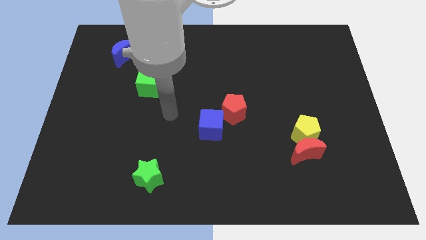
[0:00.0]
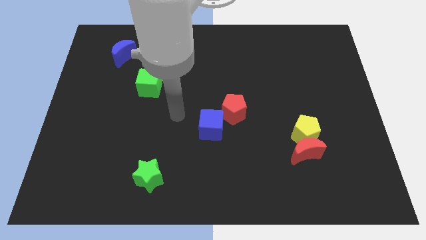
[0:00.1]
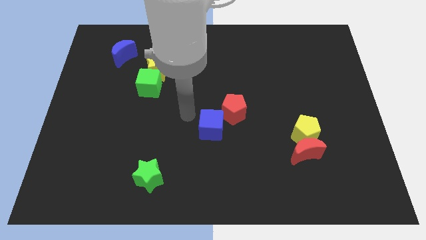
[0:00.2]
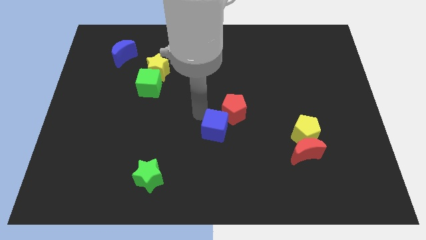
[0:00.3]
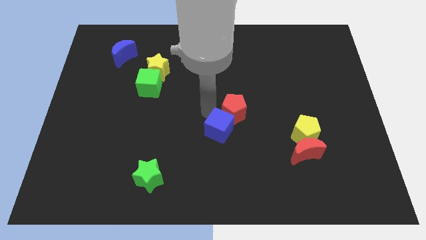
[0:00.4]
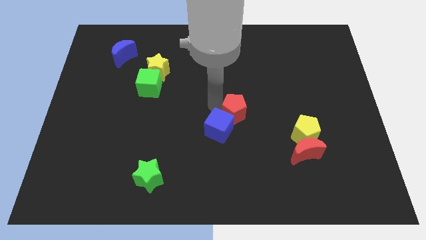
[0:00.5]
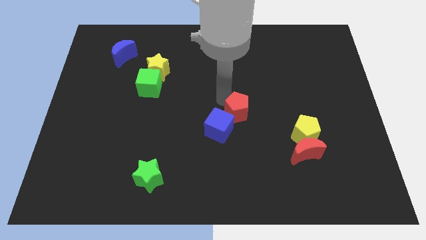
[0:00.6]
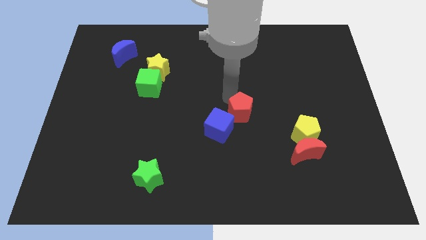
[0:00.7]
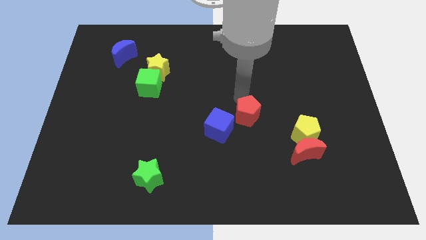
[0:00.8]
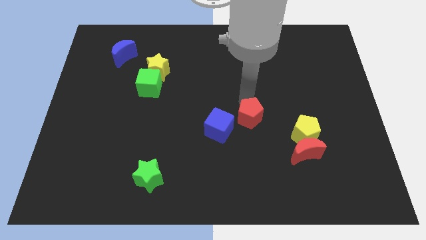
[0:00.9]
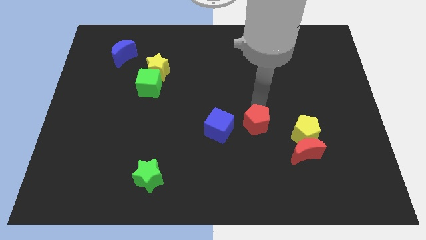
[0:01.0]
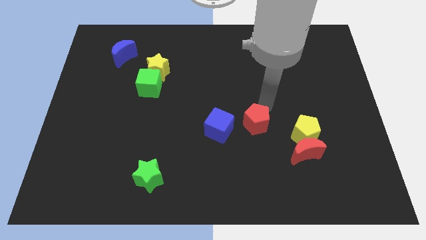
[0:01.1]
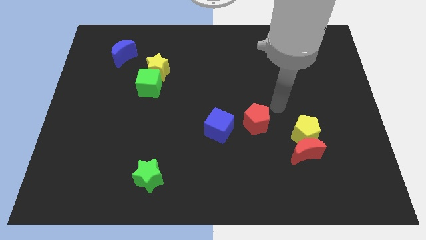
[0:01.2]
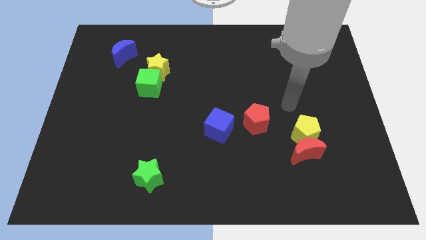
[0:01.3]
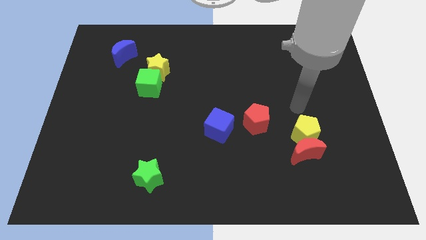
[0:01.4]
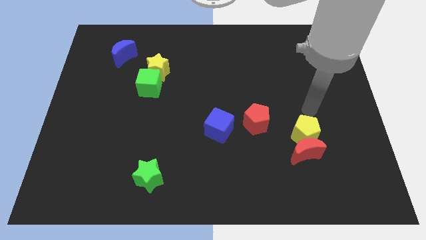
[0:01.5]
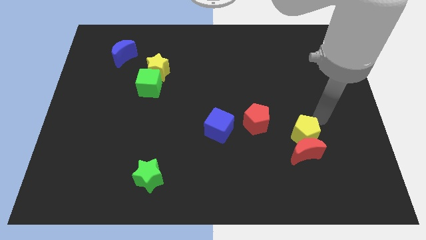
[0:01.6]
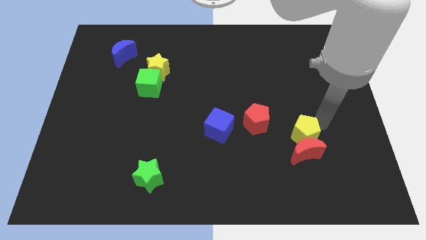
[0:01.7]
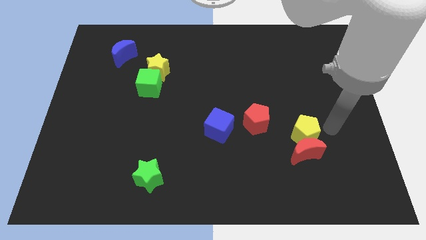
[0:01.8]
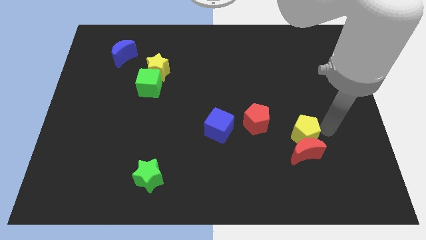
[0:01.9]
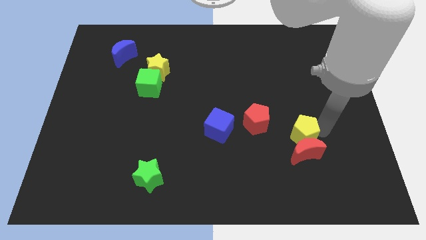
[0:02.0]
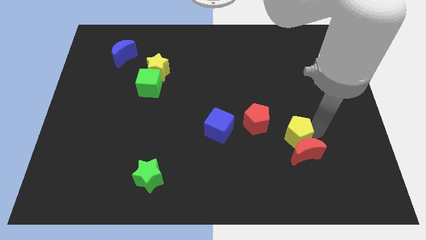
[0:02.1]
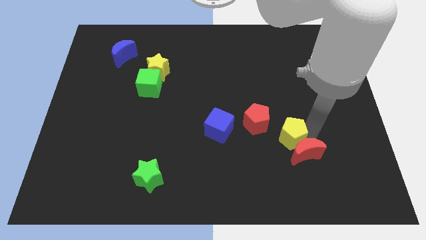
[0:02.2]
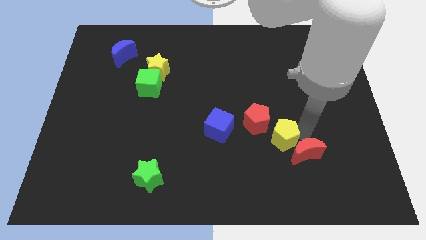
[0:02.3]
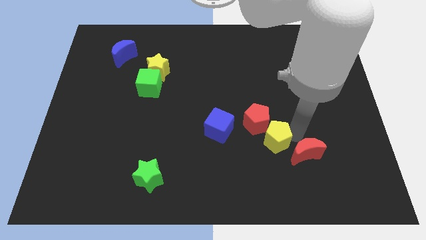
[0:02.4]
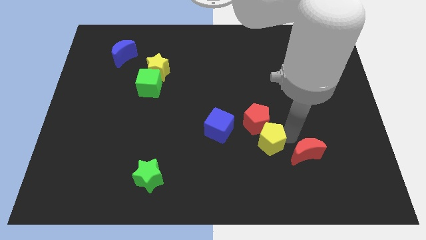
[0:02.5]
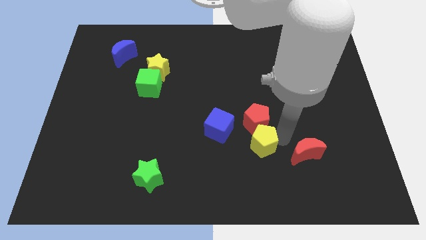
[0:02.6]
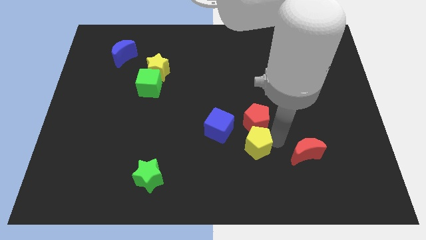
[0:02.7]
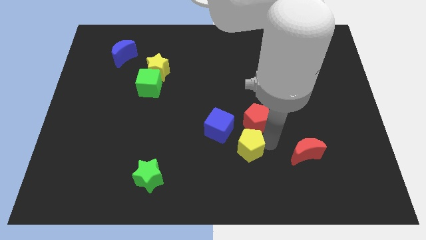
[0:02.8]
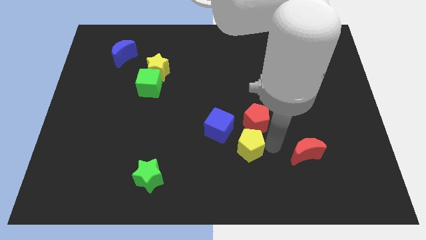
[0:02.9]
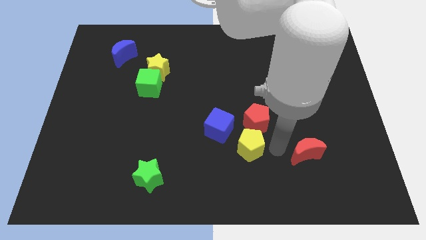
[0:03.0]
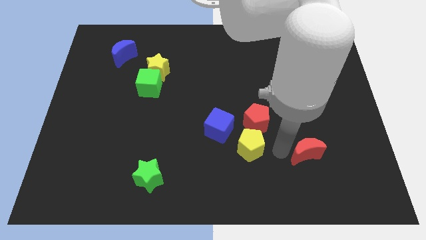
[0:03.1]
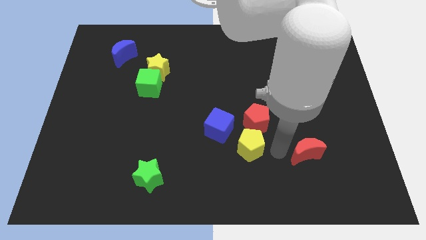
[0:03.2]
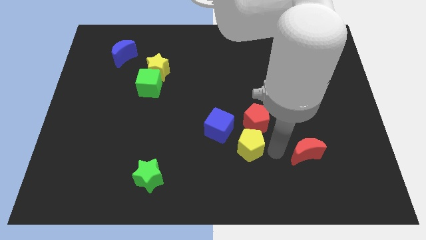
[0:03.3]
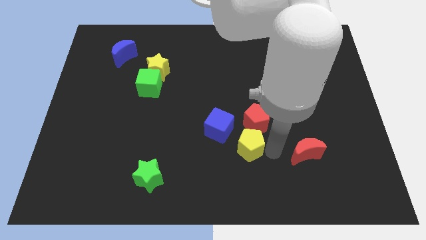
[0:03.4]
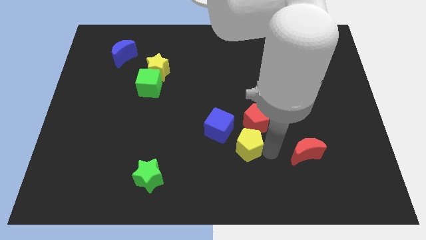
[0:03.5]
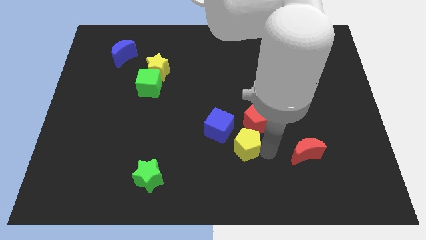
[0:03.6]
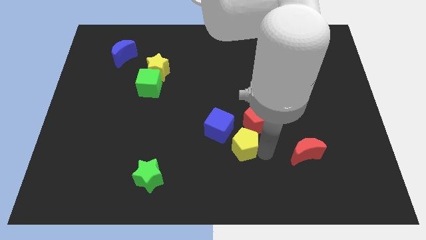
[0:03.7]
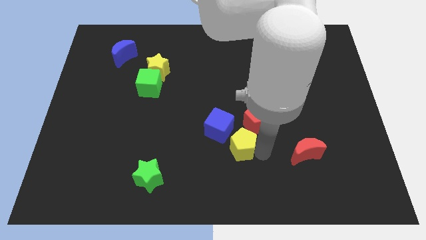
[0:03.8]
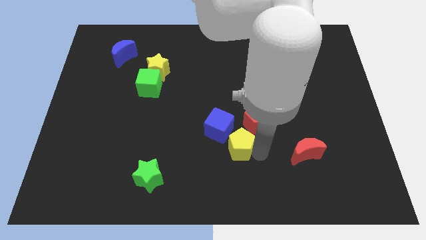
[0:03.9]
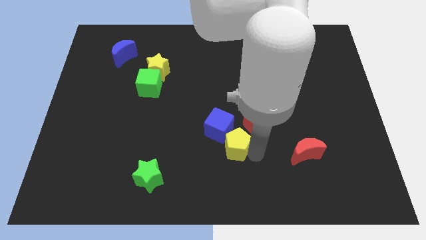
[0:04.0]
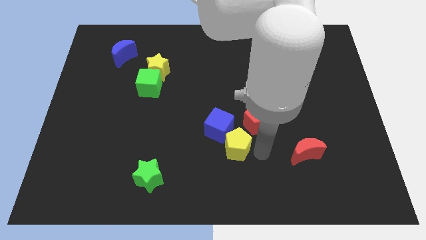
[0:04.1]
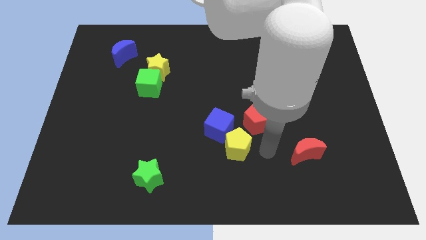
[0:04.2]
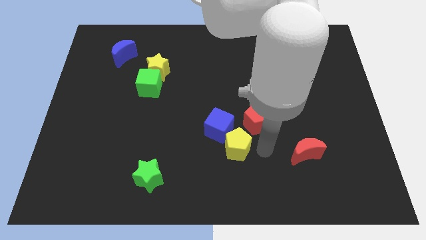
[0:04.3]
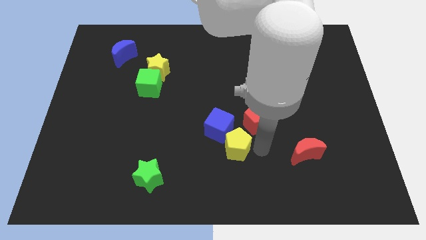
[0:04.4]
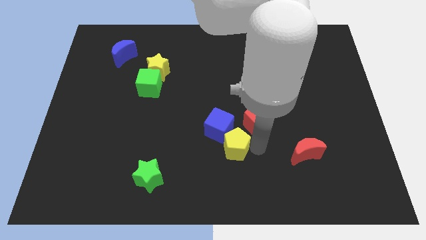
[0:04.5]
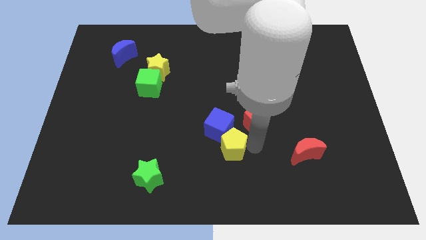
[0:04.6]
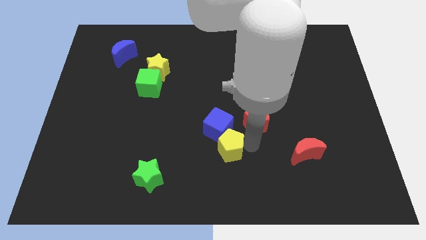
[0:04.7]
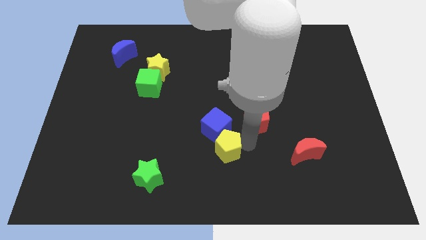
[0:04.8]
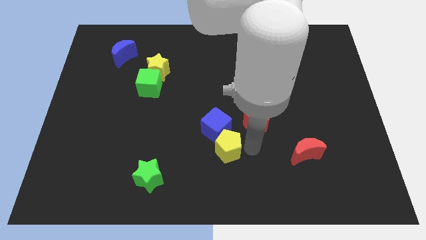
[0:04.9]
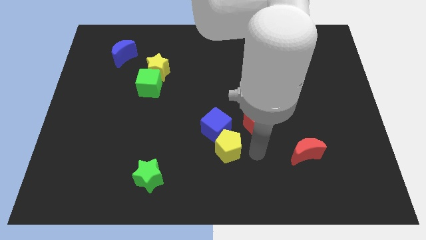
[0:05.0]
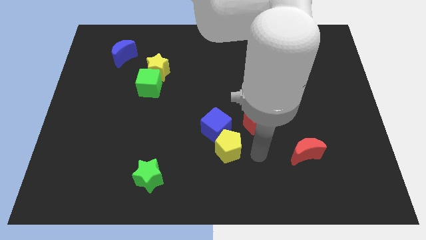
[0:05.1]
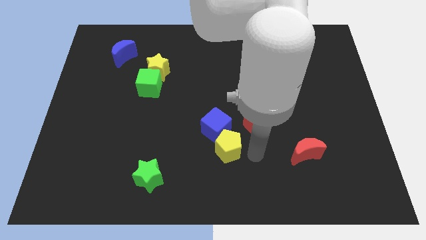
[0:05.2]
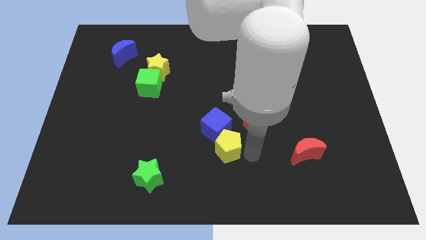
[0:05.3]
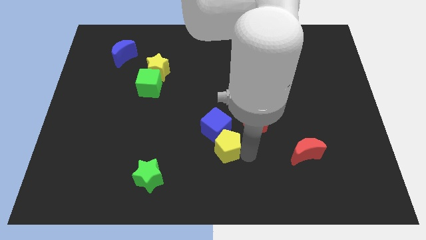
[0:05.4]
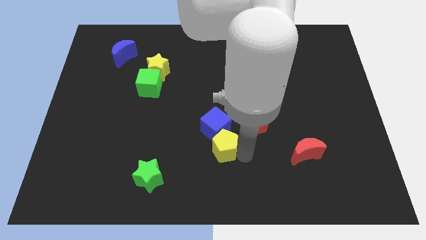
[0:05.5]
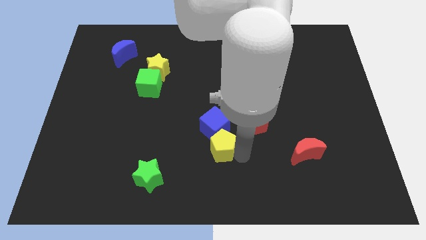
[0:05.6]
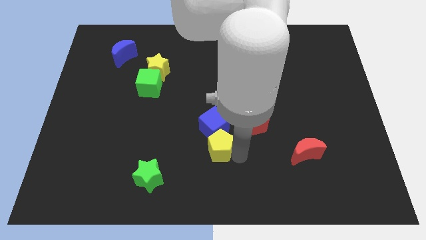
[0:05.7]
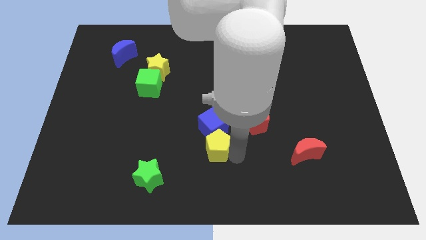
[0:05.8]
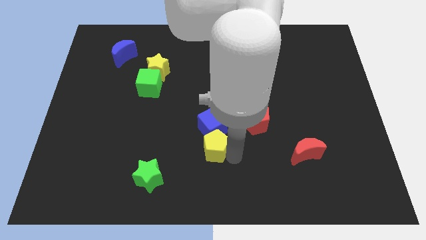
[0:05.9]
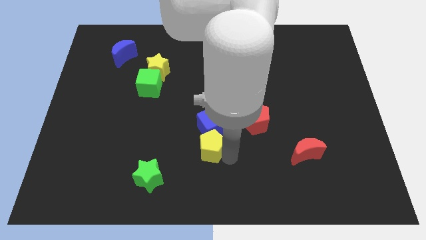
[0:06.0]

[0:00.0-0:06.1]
push the yellow pentagon left

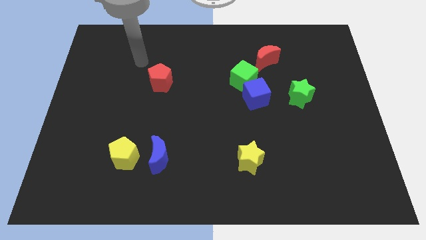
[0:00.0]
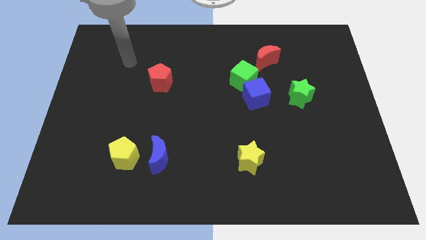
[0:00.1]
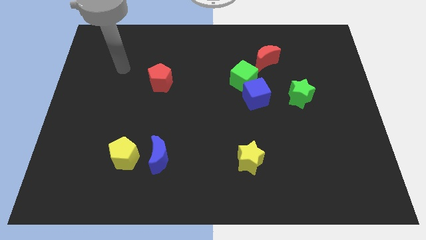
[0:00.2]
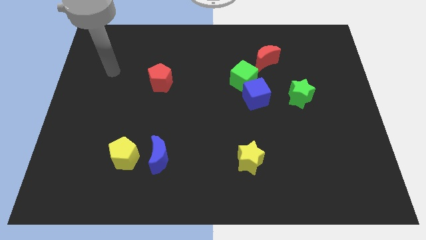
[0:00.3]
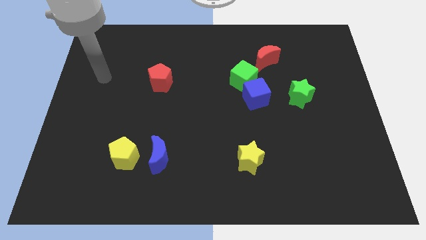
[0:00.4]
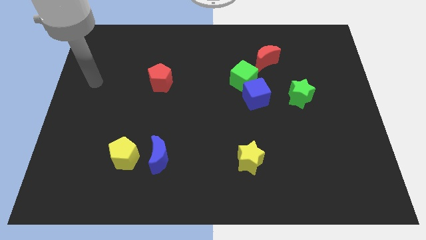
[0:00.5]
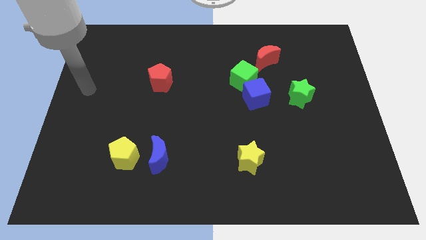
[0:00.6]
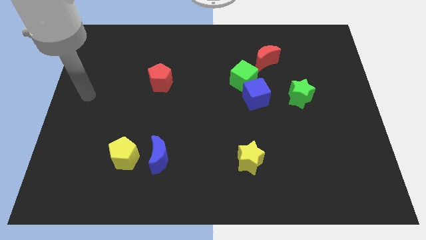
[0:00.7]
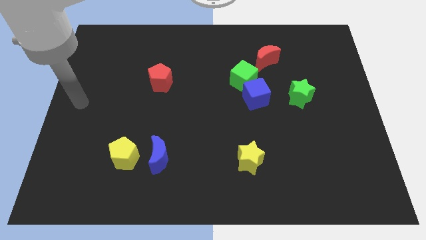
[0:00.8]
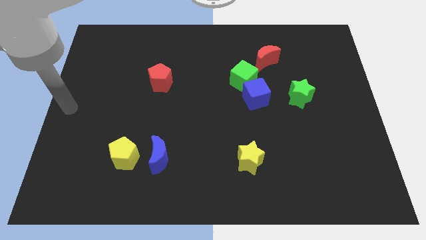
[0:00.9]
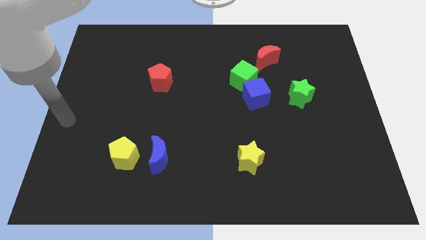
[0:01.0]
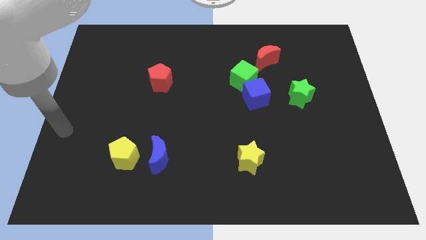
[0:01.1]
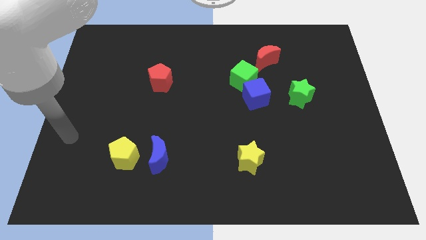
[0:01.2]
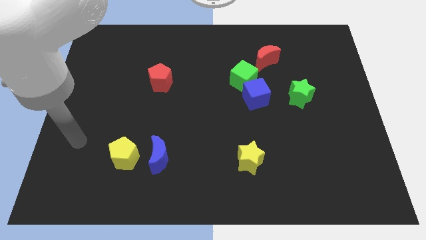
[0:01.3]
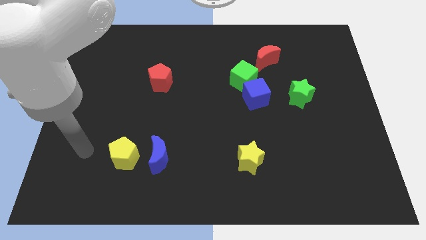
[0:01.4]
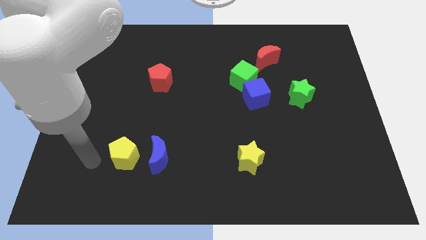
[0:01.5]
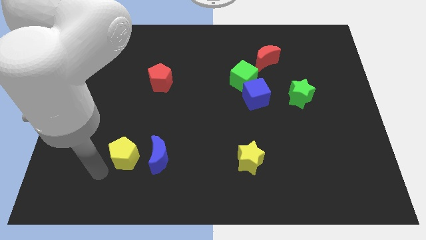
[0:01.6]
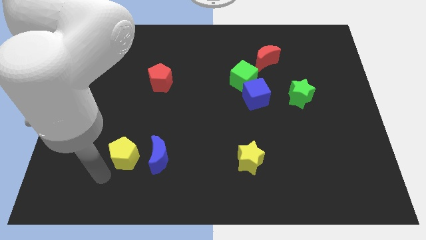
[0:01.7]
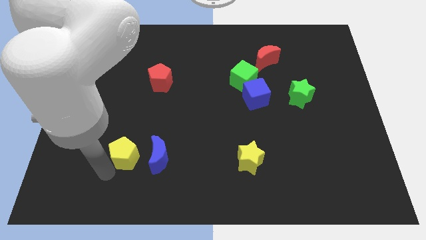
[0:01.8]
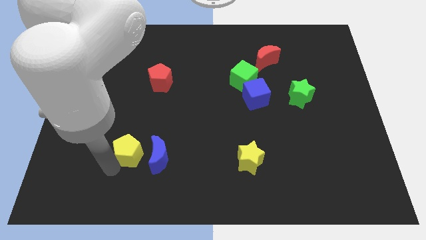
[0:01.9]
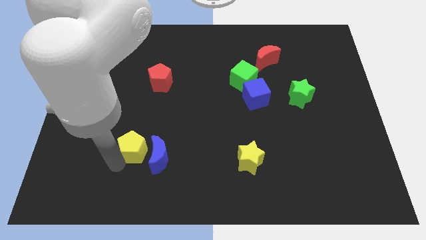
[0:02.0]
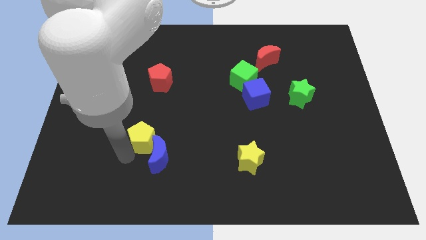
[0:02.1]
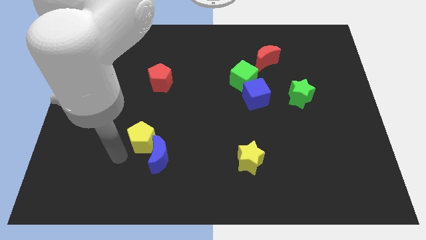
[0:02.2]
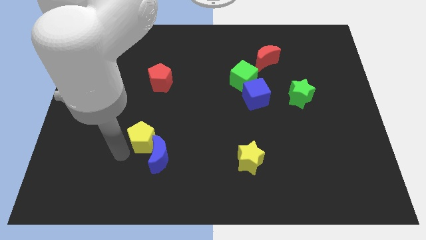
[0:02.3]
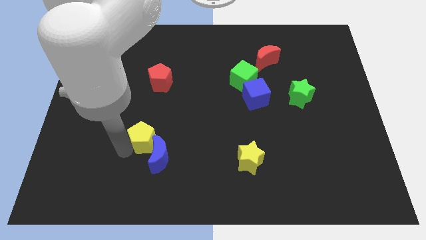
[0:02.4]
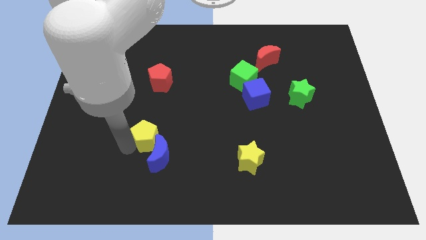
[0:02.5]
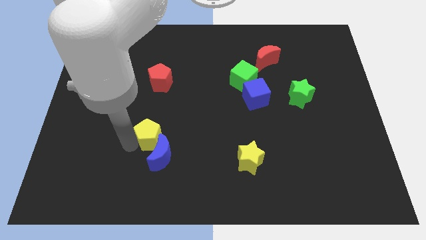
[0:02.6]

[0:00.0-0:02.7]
slightly push the yellow pentagon up and then to the right
